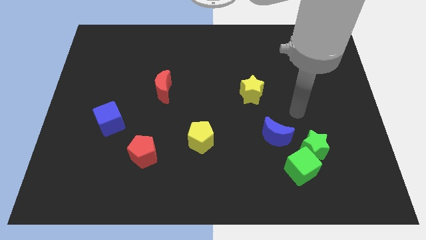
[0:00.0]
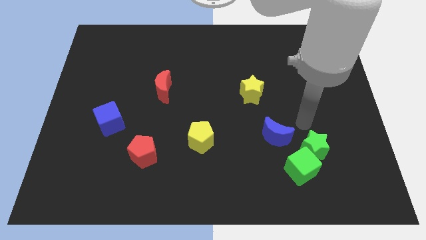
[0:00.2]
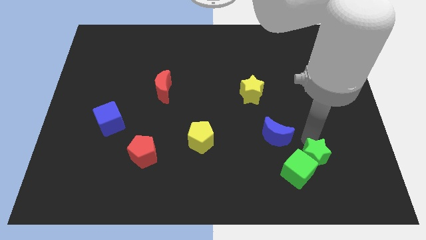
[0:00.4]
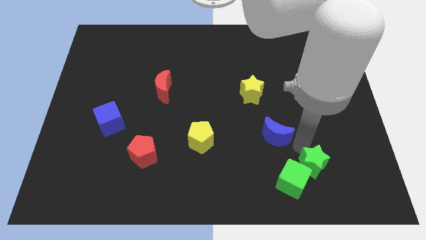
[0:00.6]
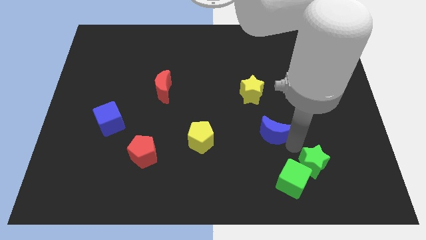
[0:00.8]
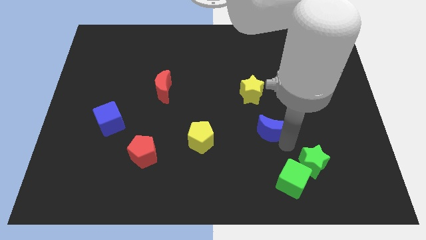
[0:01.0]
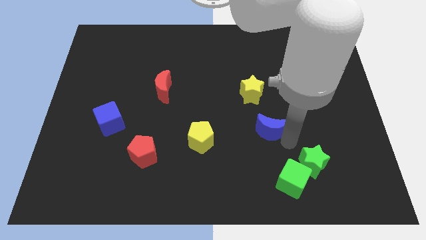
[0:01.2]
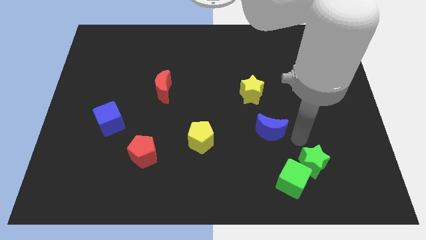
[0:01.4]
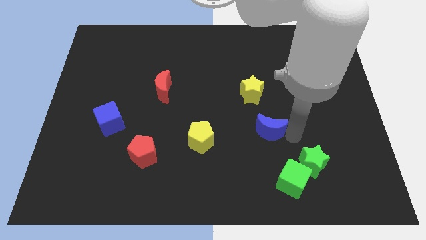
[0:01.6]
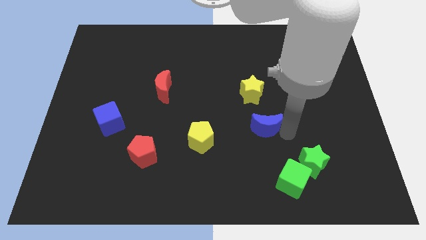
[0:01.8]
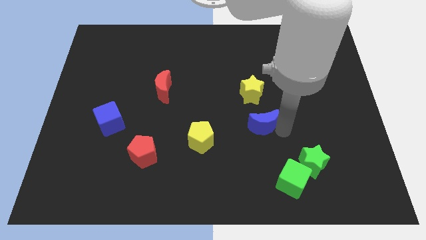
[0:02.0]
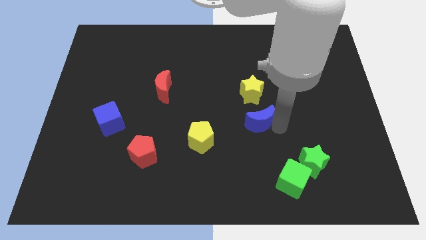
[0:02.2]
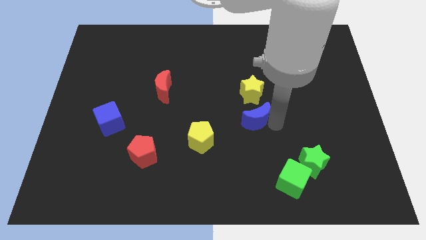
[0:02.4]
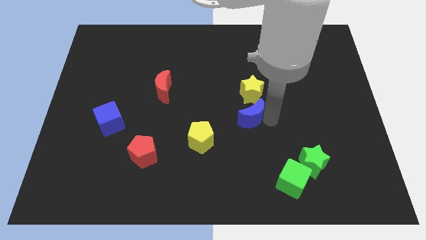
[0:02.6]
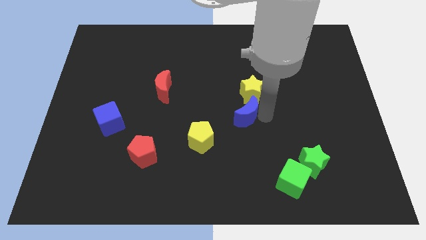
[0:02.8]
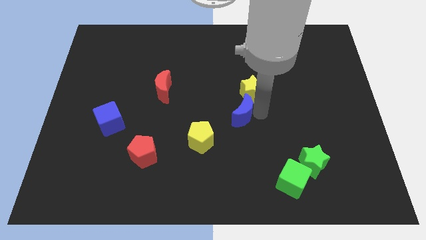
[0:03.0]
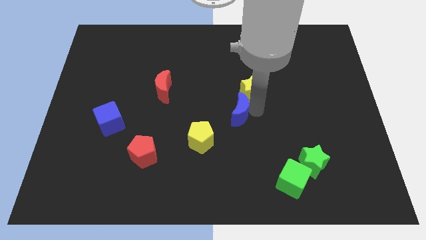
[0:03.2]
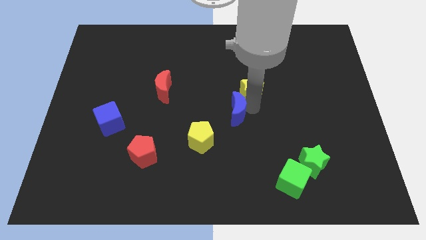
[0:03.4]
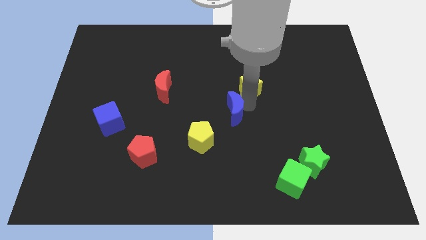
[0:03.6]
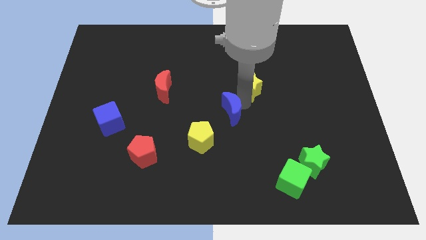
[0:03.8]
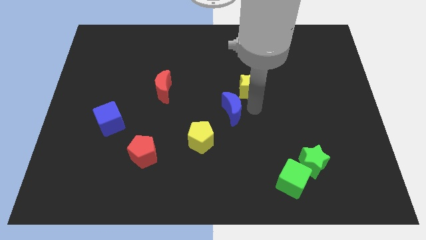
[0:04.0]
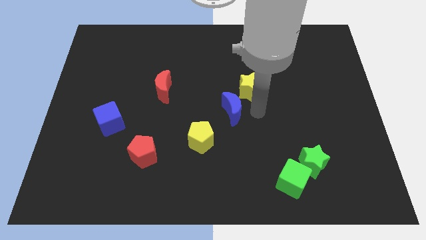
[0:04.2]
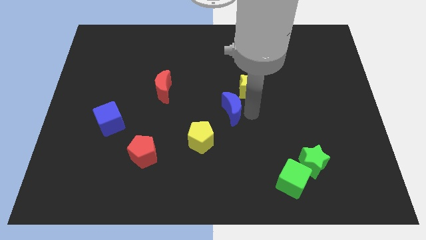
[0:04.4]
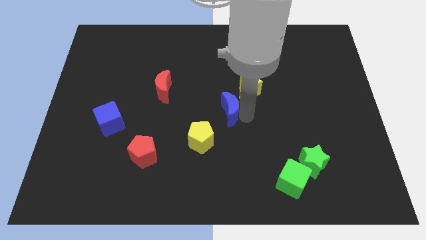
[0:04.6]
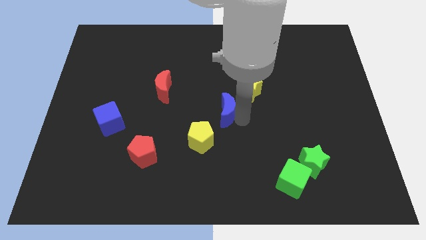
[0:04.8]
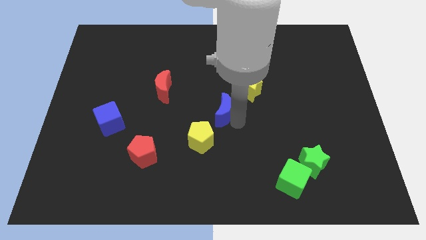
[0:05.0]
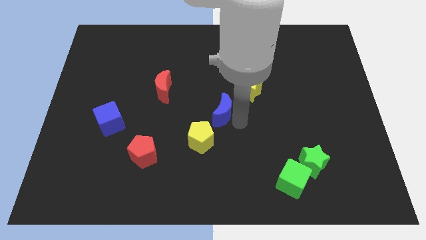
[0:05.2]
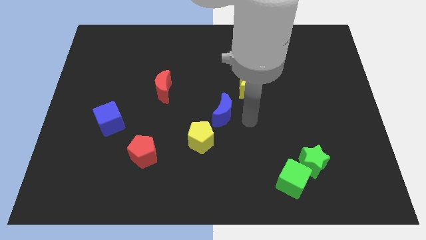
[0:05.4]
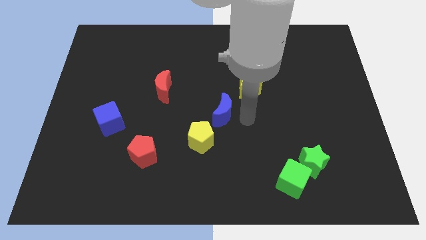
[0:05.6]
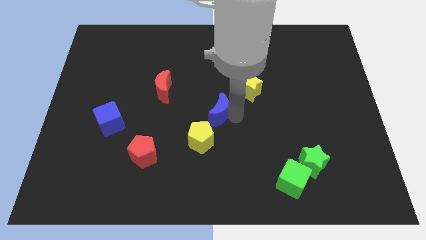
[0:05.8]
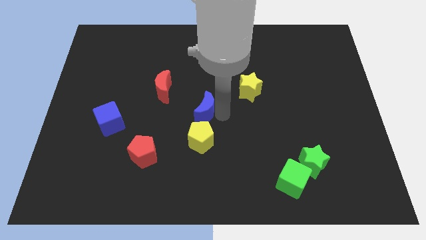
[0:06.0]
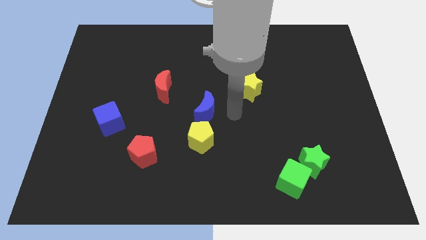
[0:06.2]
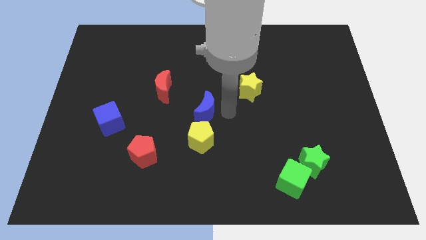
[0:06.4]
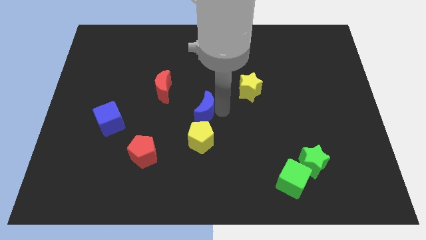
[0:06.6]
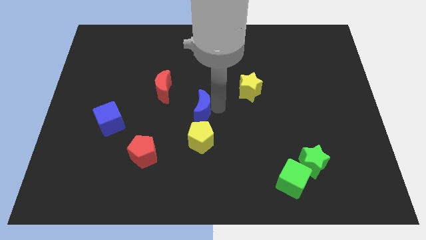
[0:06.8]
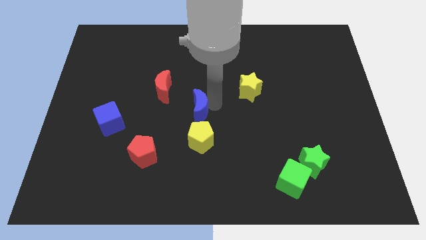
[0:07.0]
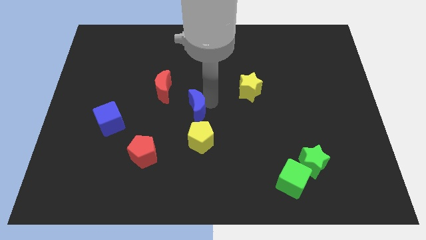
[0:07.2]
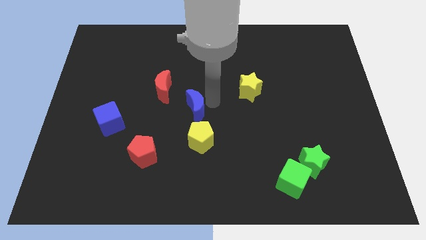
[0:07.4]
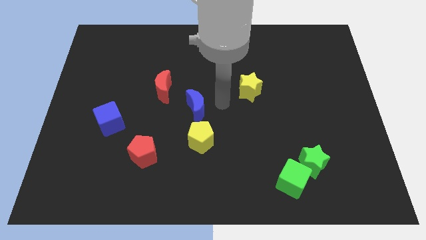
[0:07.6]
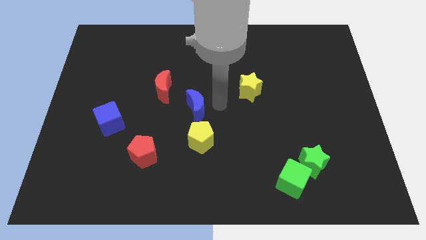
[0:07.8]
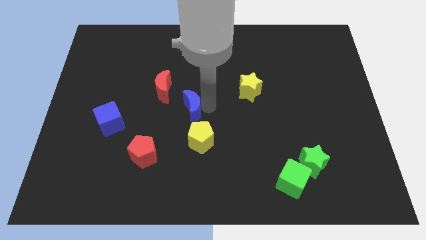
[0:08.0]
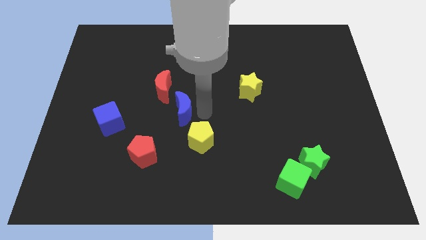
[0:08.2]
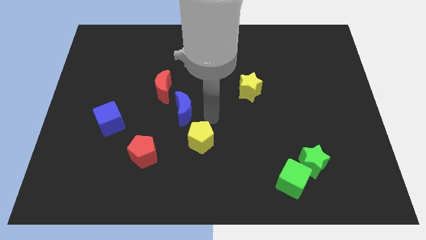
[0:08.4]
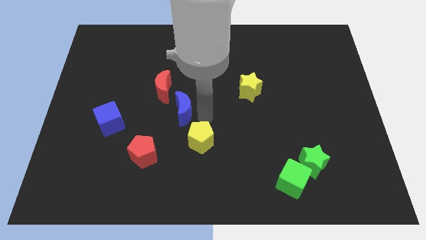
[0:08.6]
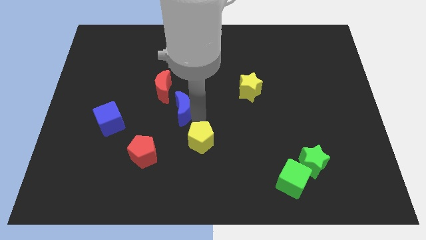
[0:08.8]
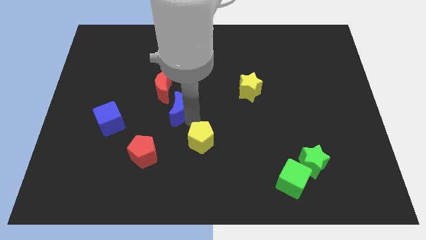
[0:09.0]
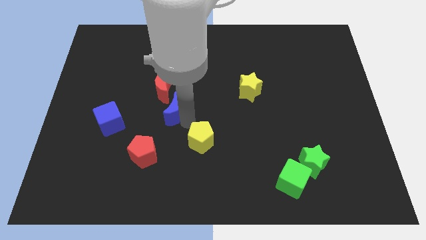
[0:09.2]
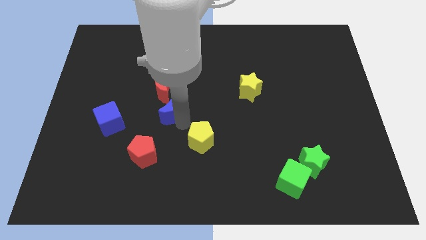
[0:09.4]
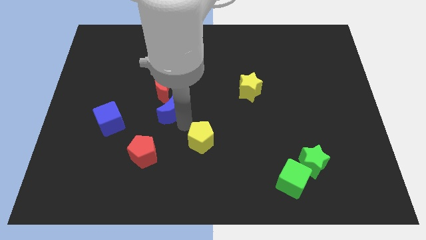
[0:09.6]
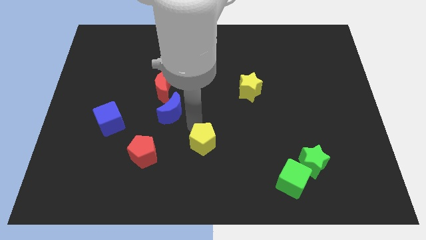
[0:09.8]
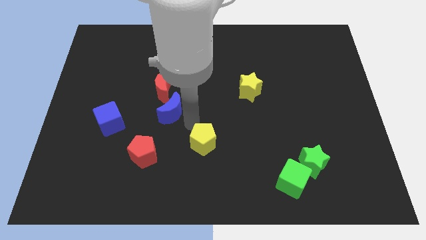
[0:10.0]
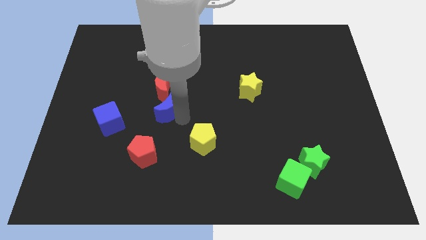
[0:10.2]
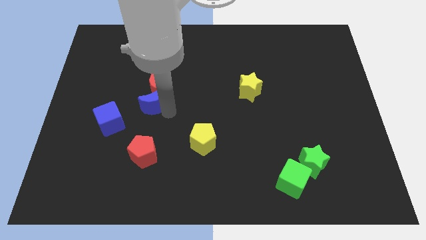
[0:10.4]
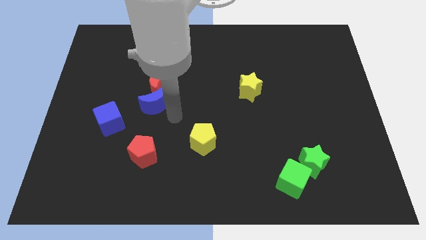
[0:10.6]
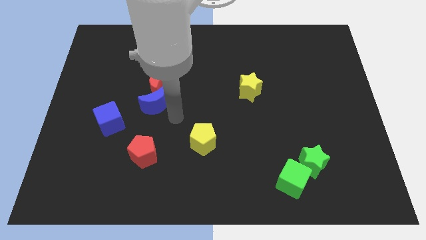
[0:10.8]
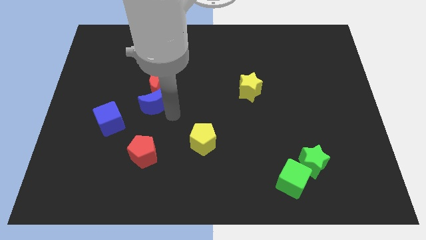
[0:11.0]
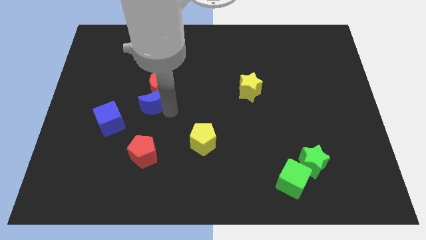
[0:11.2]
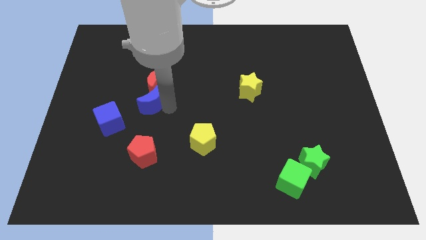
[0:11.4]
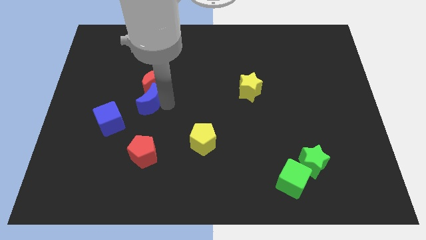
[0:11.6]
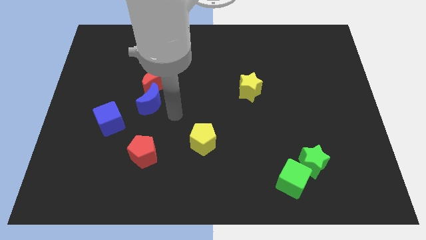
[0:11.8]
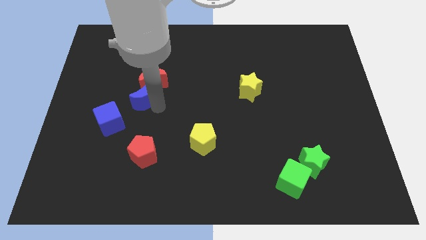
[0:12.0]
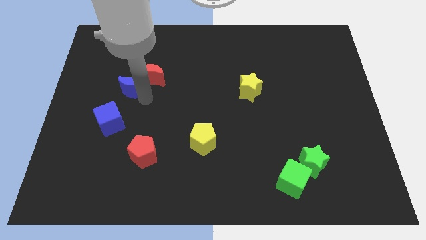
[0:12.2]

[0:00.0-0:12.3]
move the blue moon just left of the red moon

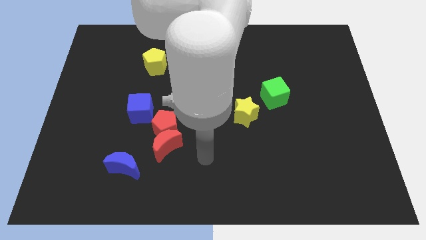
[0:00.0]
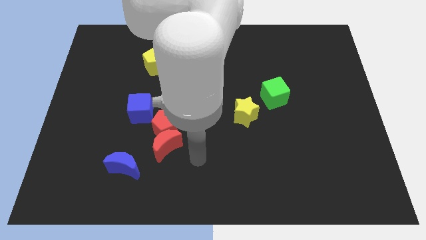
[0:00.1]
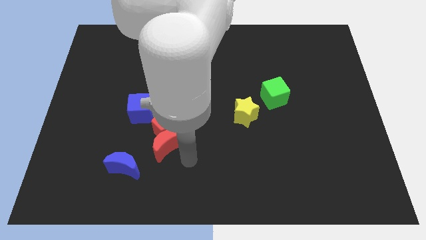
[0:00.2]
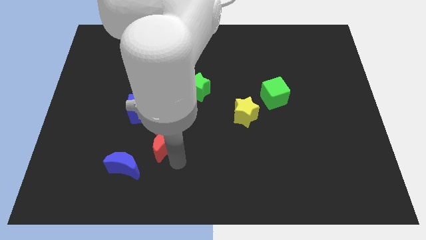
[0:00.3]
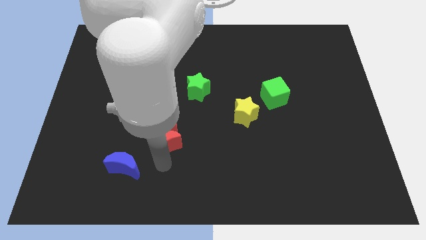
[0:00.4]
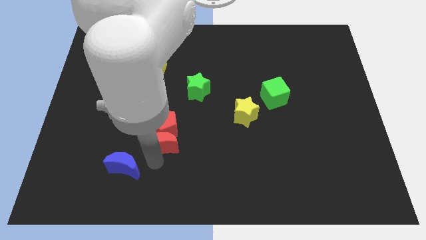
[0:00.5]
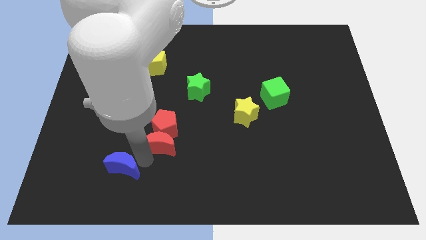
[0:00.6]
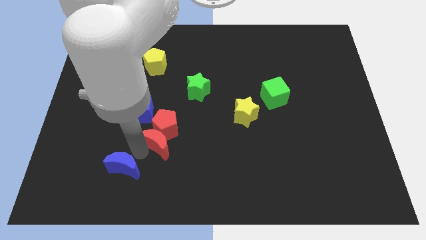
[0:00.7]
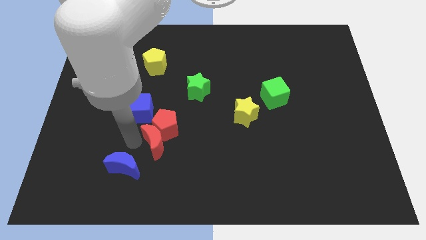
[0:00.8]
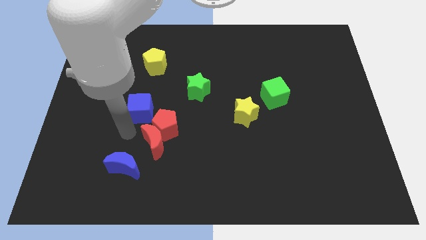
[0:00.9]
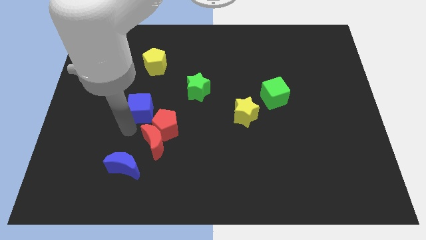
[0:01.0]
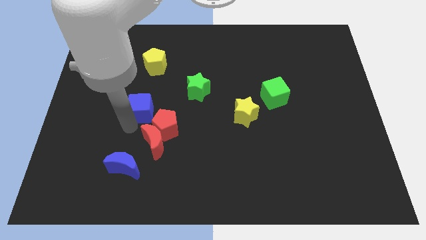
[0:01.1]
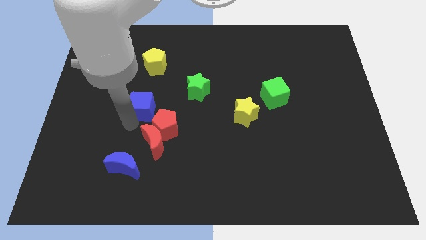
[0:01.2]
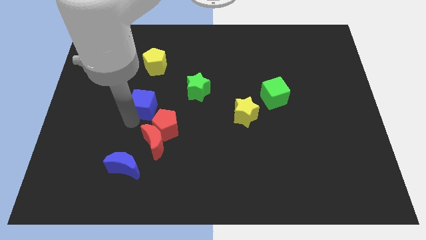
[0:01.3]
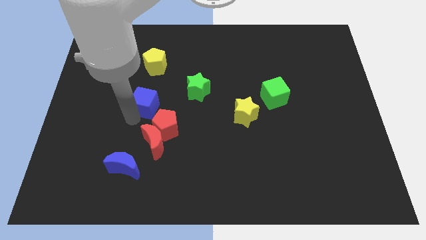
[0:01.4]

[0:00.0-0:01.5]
push the blue cube just left of the green star

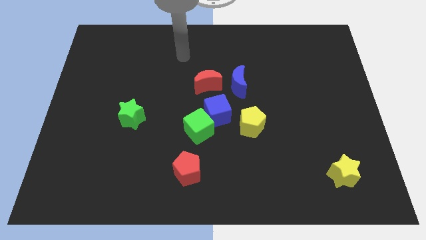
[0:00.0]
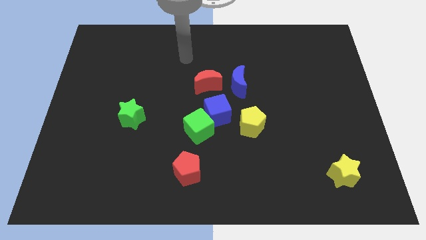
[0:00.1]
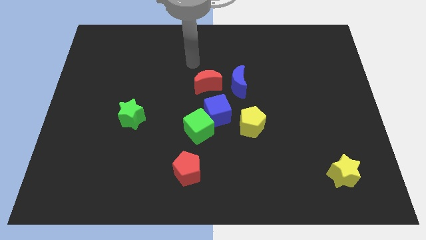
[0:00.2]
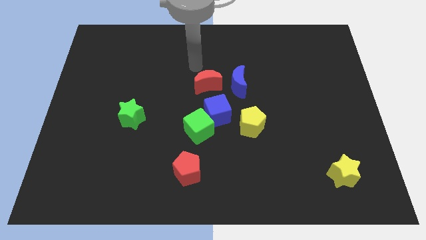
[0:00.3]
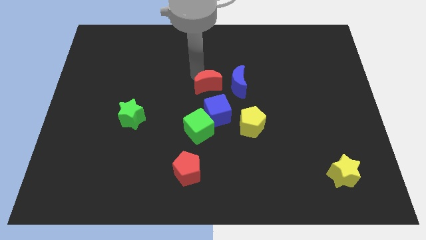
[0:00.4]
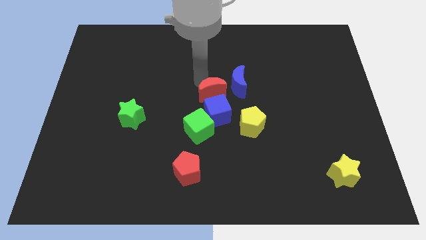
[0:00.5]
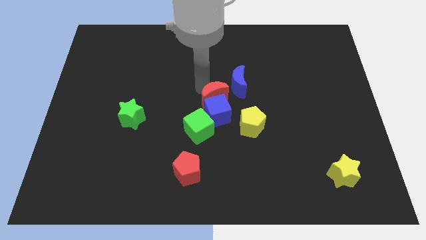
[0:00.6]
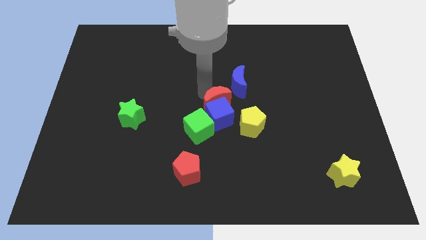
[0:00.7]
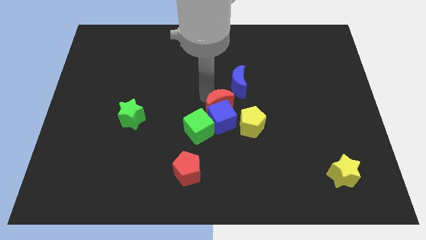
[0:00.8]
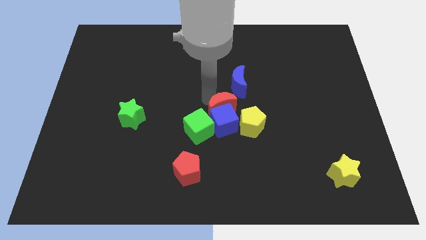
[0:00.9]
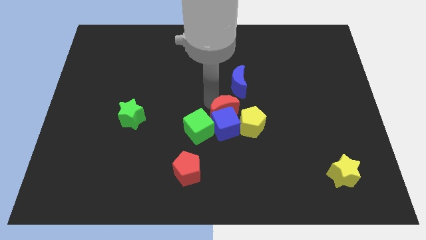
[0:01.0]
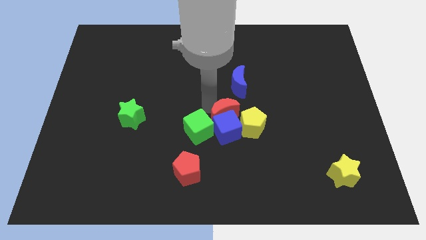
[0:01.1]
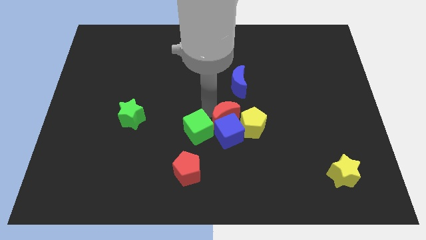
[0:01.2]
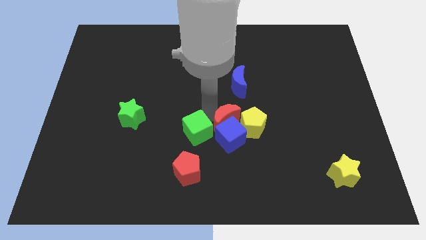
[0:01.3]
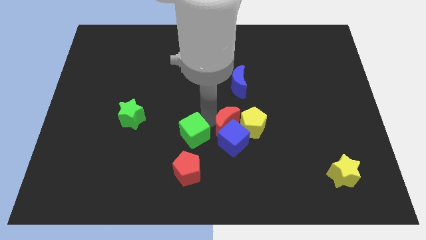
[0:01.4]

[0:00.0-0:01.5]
slide the blue cube to the bottom of the yellow pentagon
